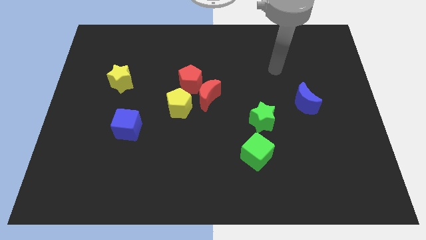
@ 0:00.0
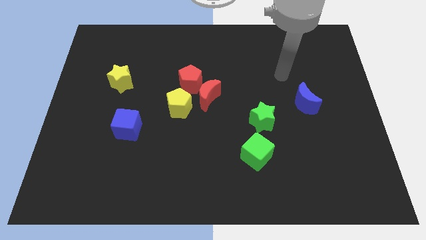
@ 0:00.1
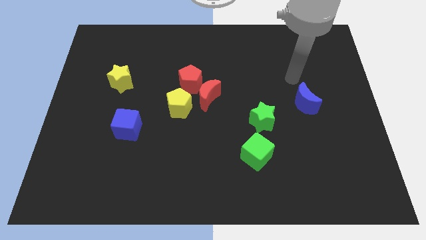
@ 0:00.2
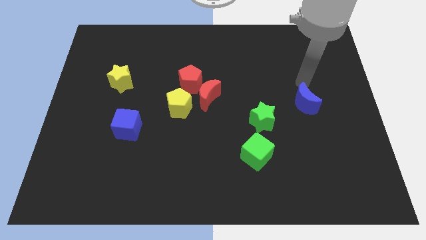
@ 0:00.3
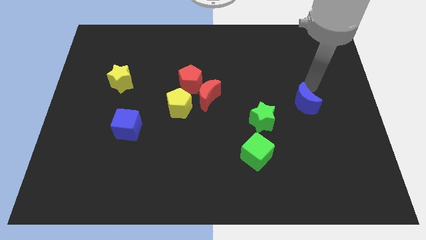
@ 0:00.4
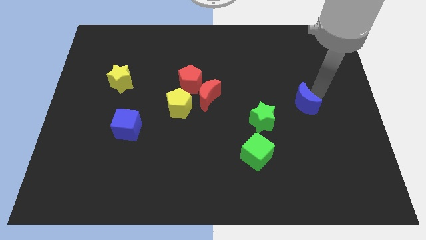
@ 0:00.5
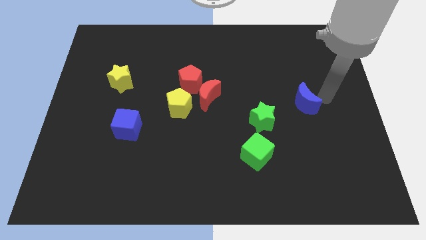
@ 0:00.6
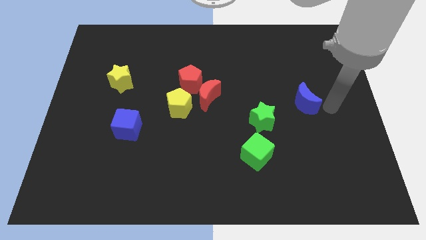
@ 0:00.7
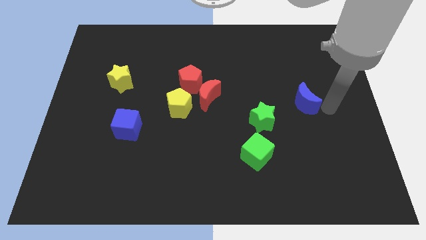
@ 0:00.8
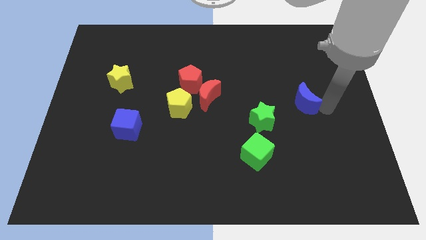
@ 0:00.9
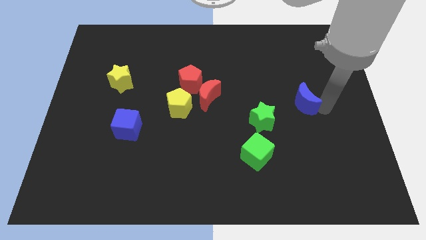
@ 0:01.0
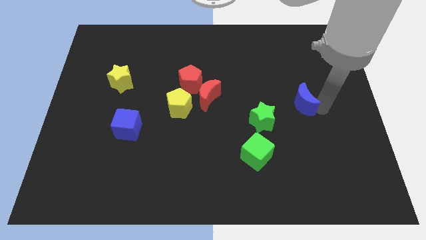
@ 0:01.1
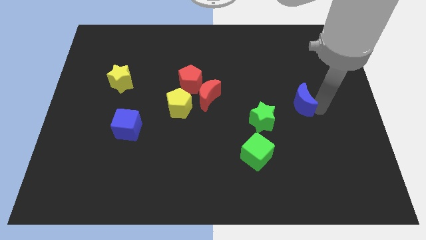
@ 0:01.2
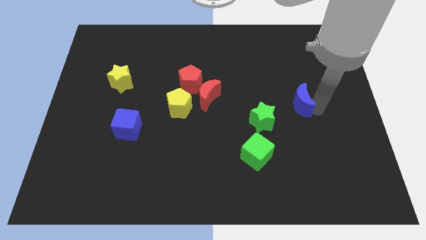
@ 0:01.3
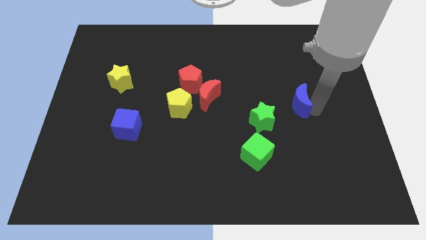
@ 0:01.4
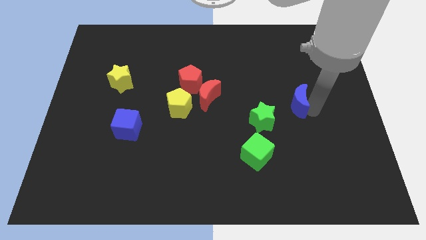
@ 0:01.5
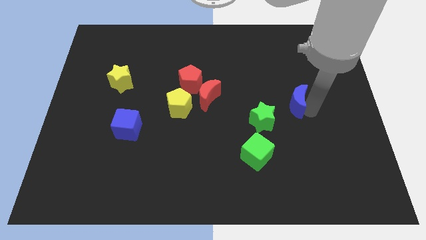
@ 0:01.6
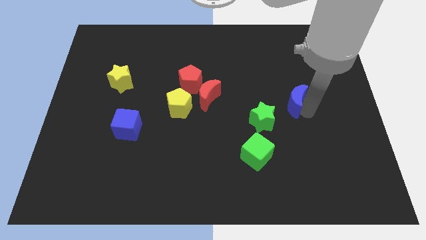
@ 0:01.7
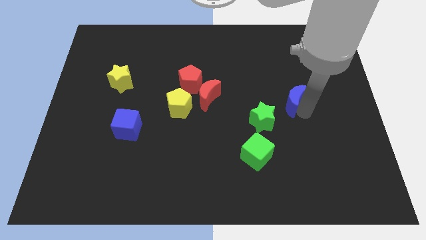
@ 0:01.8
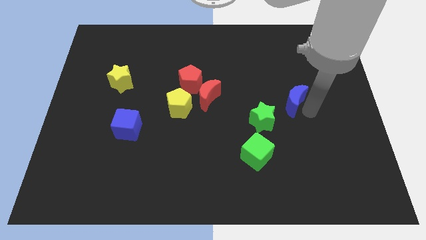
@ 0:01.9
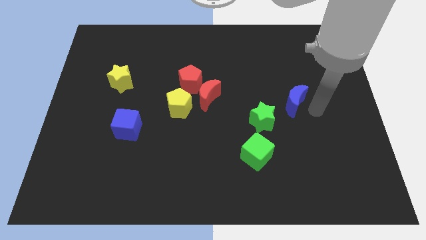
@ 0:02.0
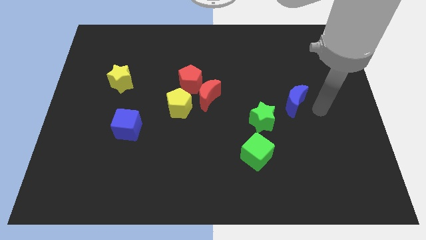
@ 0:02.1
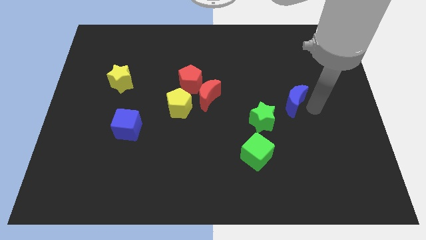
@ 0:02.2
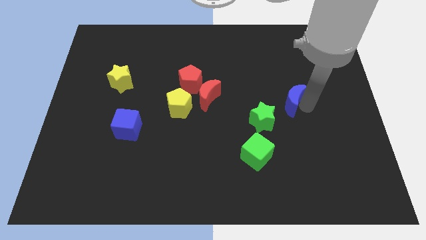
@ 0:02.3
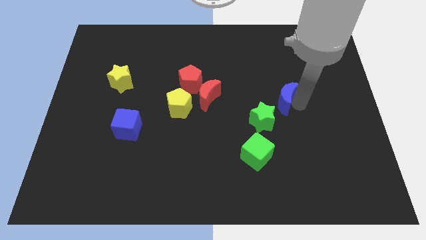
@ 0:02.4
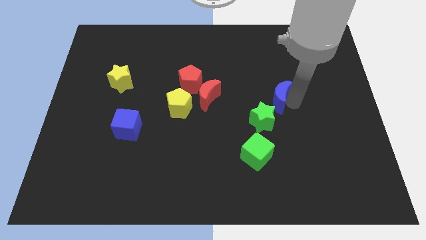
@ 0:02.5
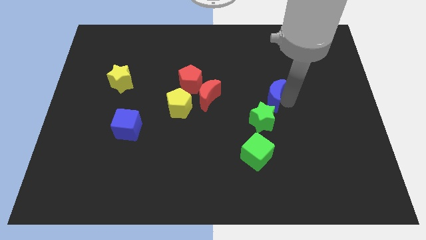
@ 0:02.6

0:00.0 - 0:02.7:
slide the blue moon a little to the left

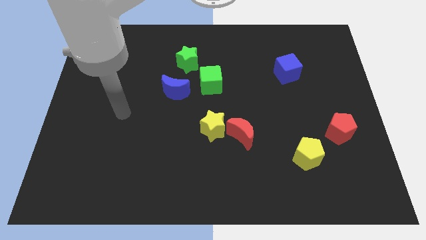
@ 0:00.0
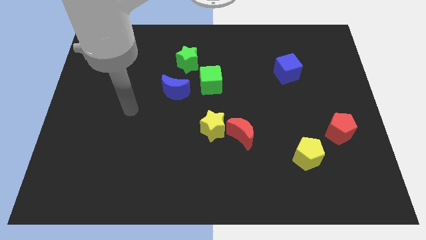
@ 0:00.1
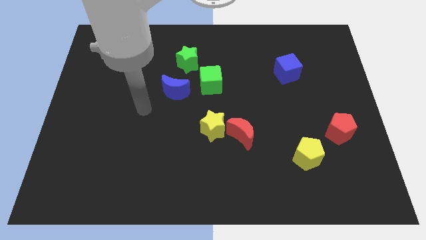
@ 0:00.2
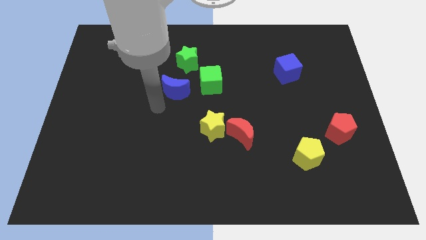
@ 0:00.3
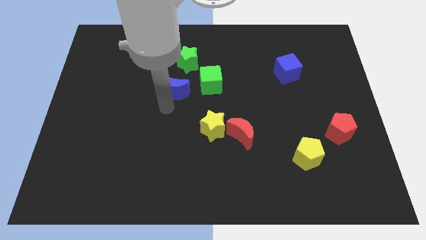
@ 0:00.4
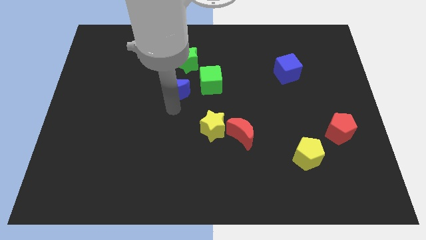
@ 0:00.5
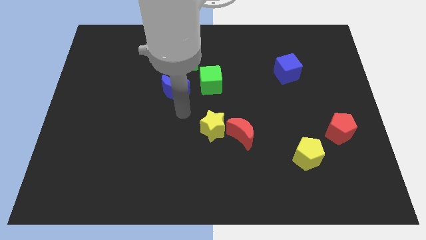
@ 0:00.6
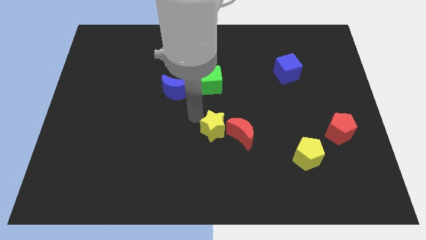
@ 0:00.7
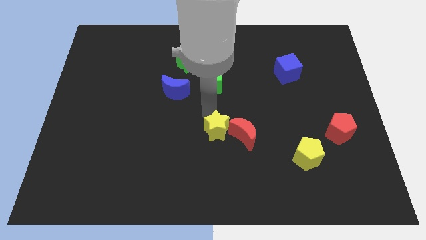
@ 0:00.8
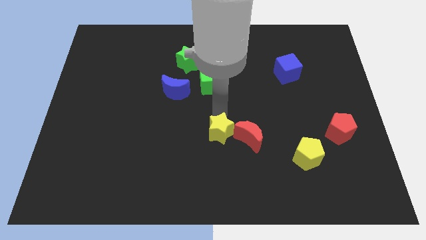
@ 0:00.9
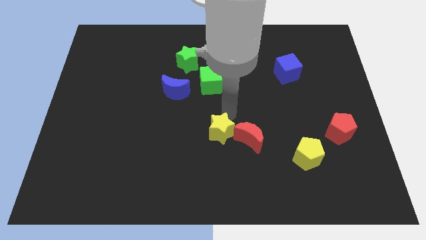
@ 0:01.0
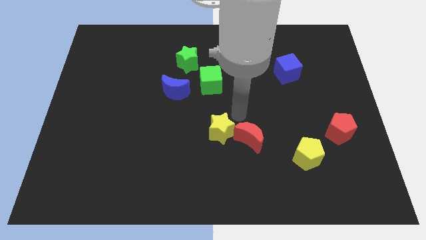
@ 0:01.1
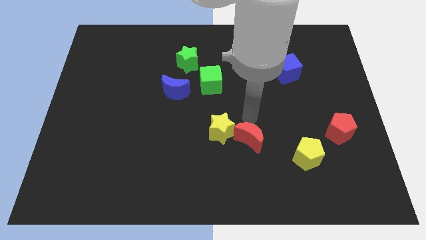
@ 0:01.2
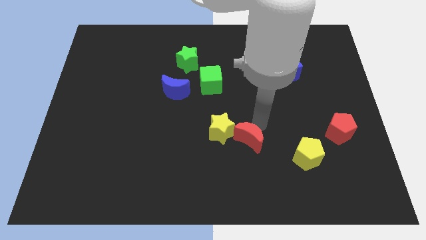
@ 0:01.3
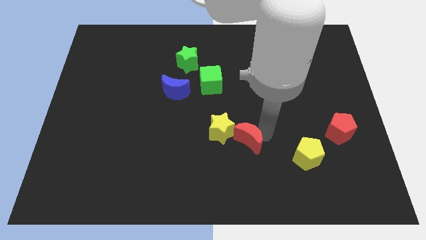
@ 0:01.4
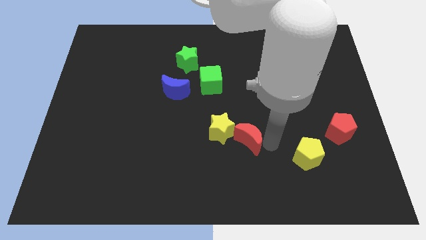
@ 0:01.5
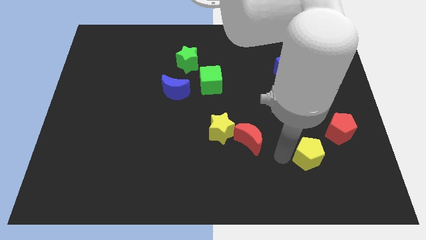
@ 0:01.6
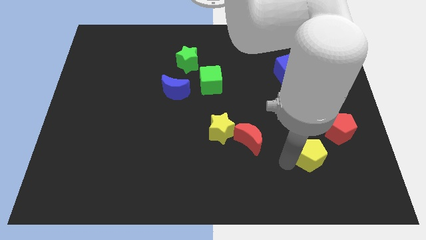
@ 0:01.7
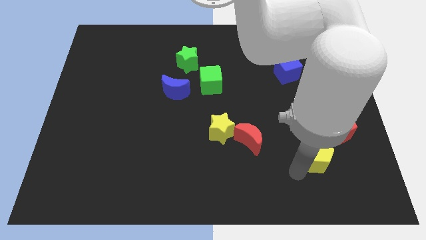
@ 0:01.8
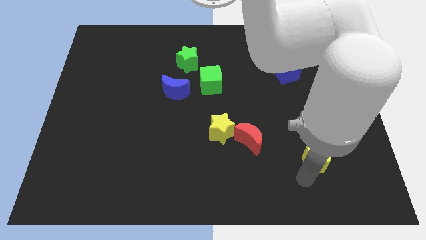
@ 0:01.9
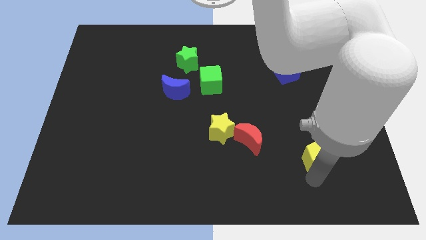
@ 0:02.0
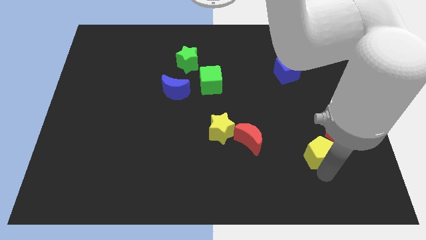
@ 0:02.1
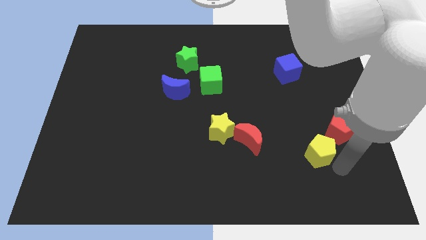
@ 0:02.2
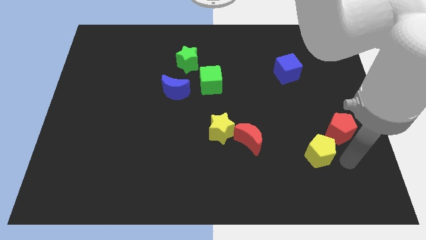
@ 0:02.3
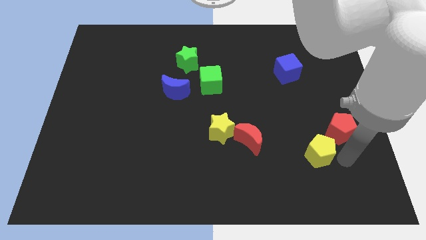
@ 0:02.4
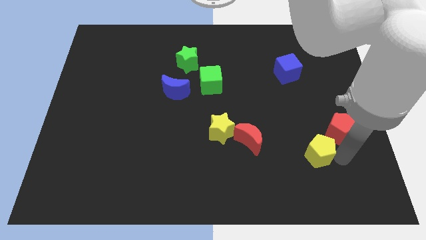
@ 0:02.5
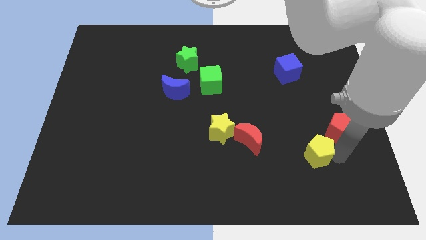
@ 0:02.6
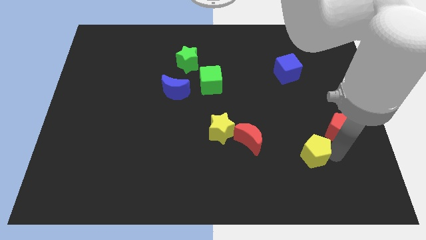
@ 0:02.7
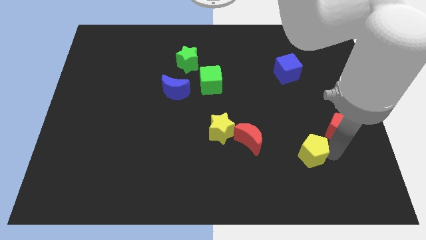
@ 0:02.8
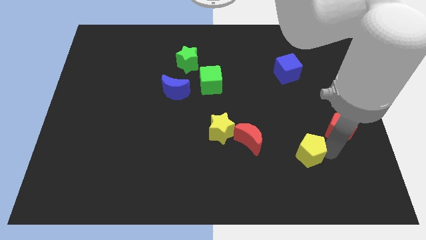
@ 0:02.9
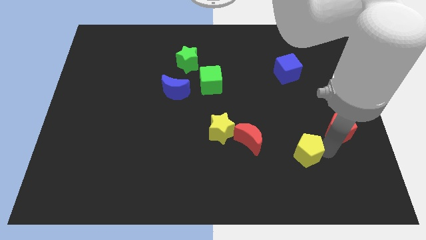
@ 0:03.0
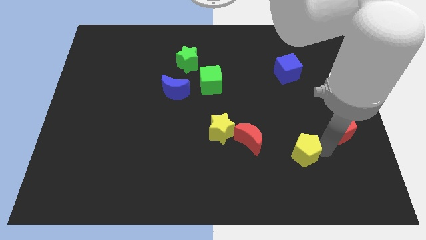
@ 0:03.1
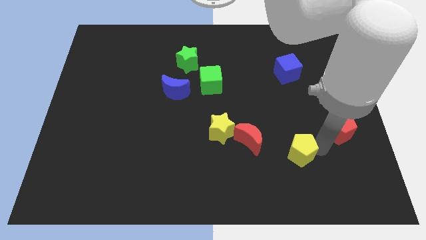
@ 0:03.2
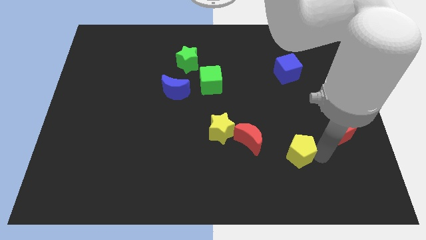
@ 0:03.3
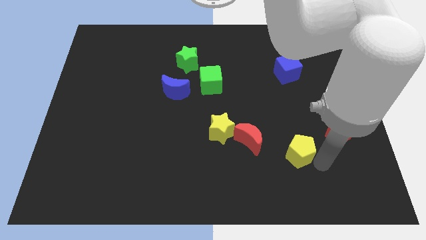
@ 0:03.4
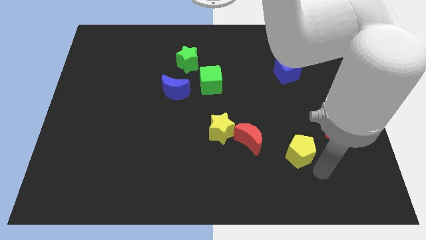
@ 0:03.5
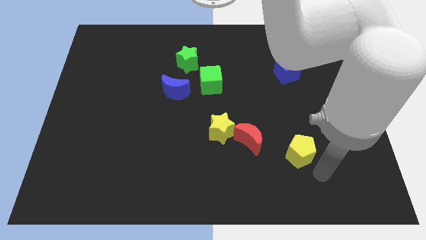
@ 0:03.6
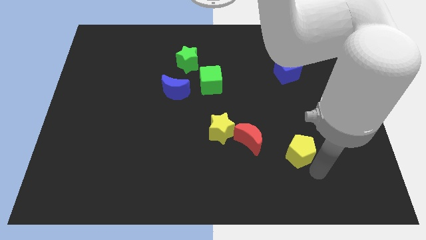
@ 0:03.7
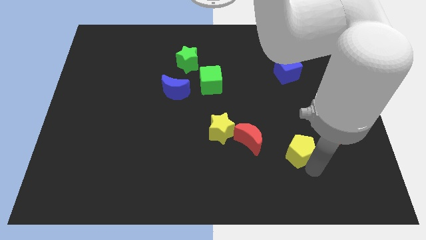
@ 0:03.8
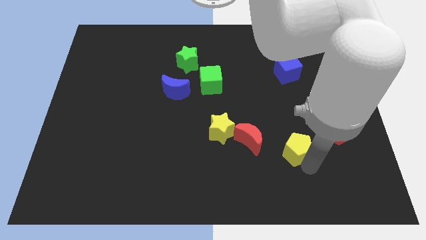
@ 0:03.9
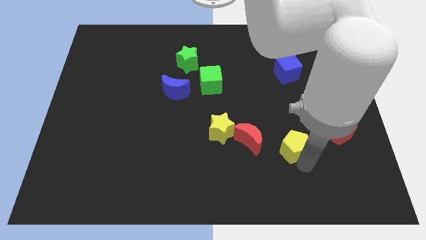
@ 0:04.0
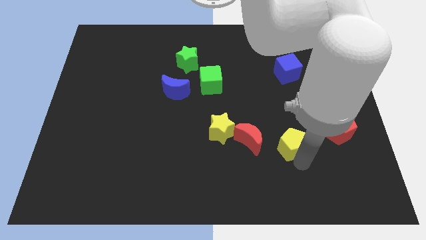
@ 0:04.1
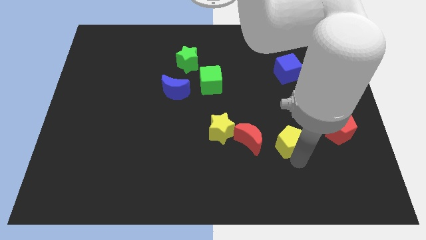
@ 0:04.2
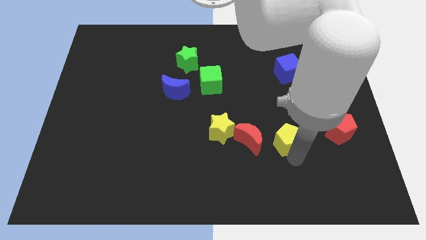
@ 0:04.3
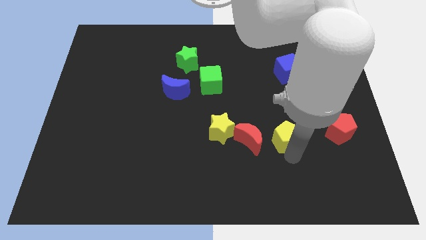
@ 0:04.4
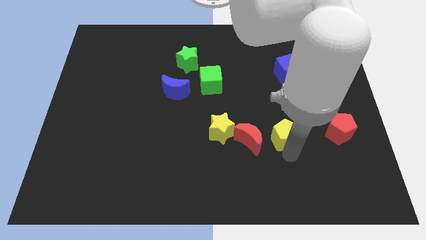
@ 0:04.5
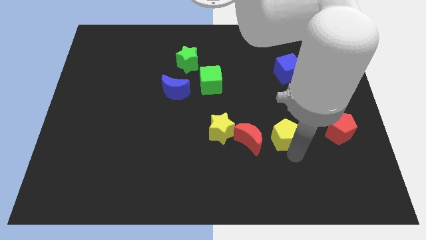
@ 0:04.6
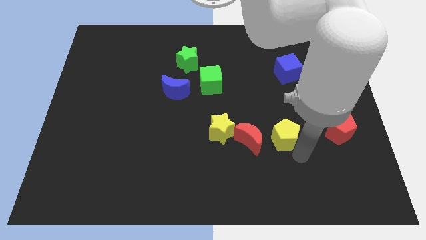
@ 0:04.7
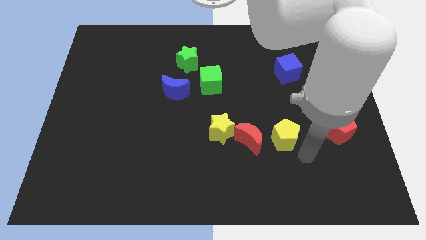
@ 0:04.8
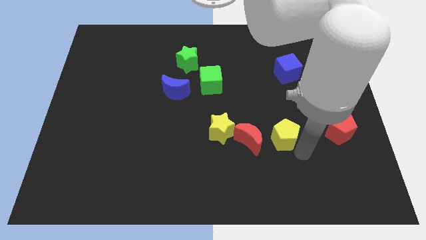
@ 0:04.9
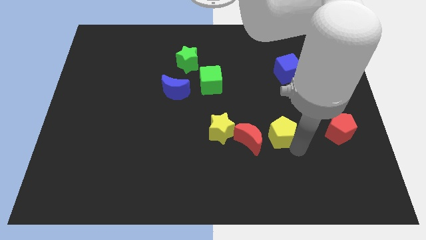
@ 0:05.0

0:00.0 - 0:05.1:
slightly move the yellow pentagon upwards and to the left diagonally
